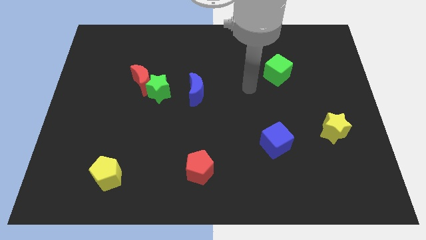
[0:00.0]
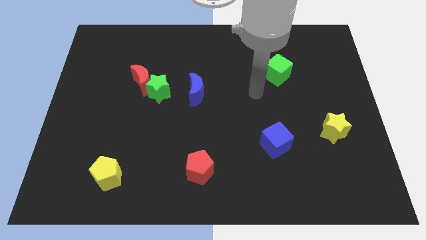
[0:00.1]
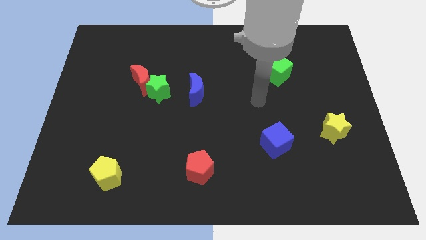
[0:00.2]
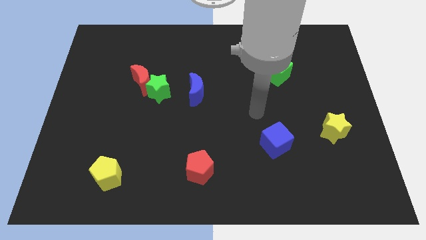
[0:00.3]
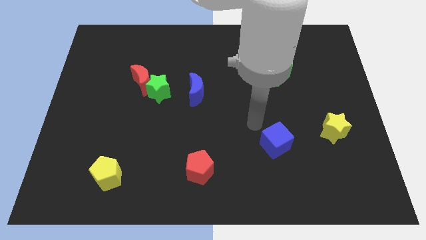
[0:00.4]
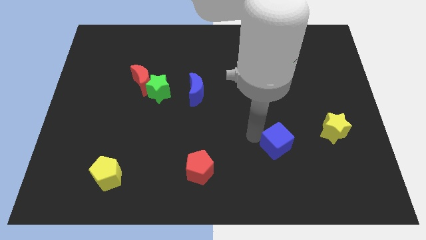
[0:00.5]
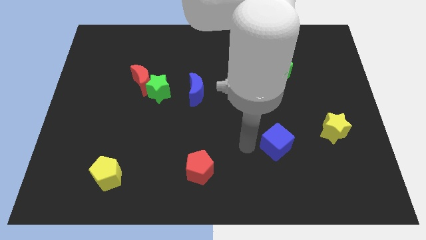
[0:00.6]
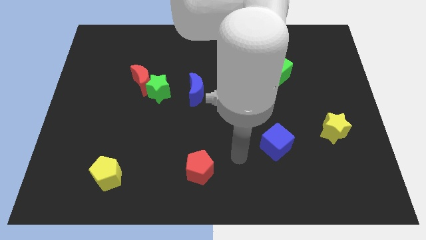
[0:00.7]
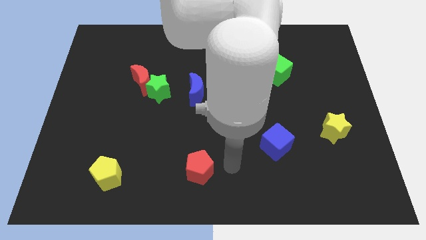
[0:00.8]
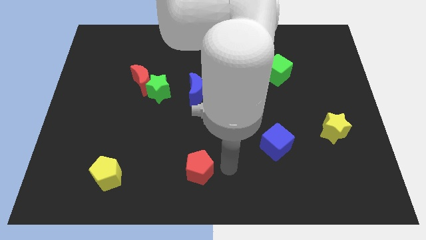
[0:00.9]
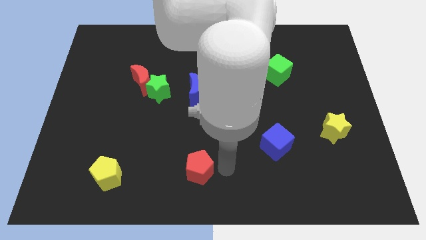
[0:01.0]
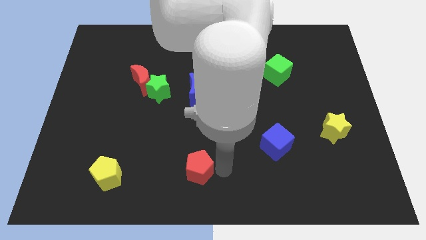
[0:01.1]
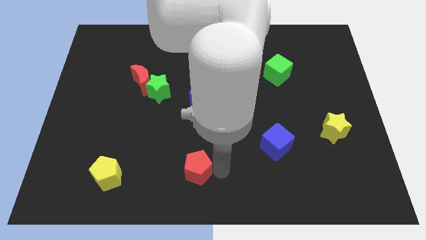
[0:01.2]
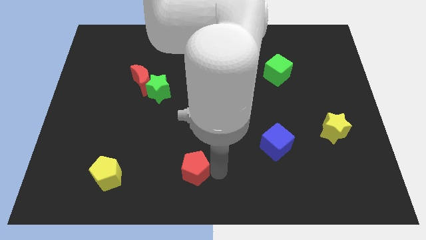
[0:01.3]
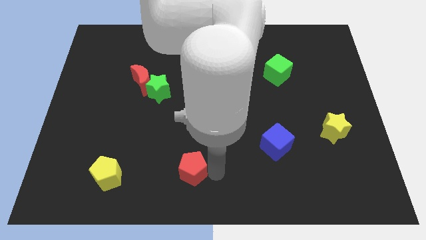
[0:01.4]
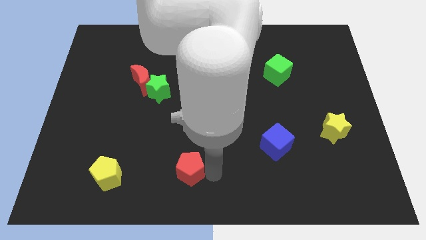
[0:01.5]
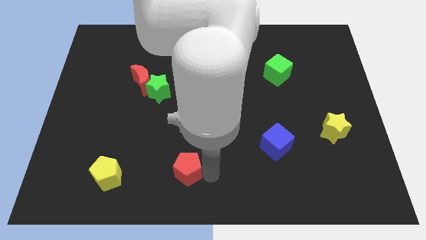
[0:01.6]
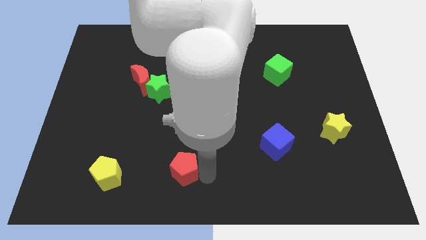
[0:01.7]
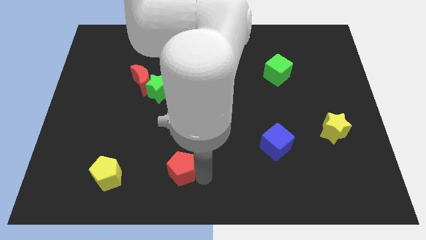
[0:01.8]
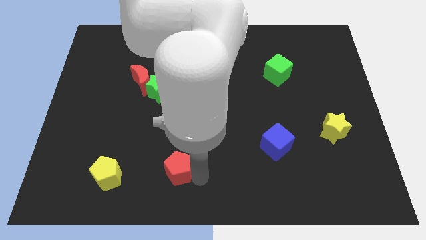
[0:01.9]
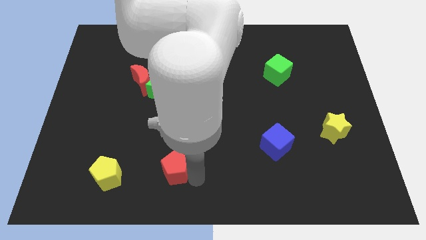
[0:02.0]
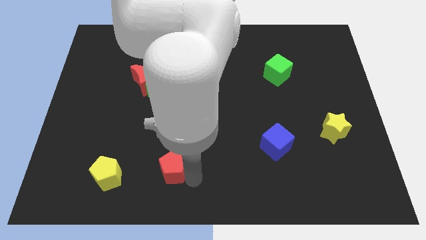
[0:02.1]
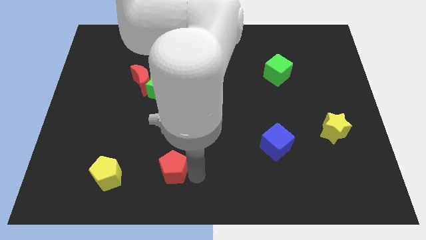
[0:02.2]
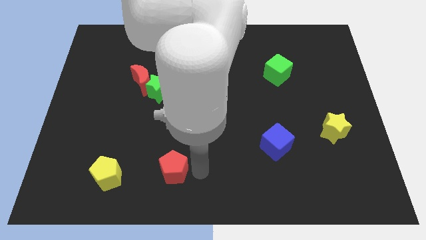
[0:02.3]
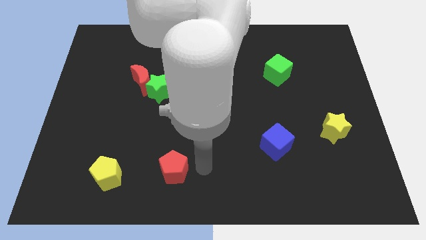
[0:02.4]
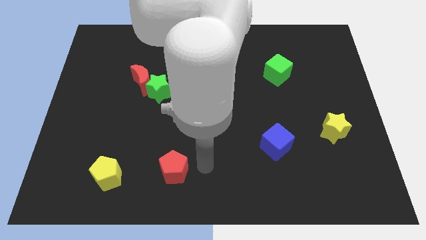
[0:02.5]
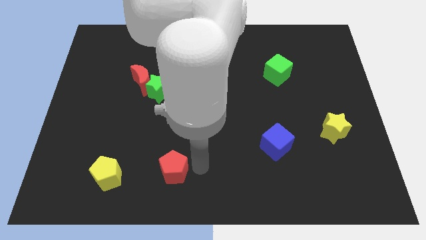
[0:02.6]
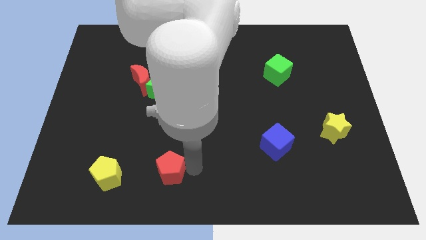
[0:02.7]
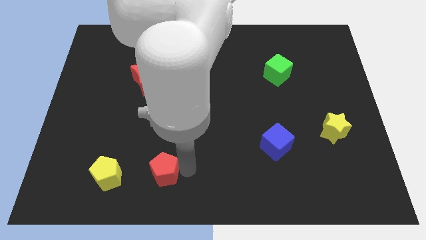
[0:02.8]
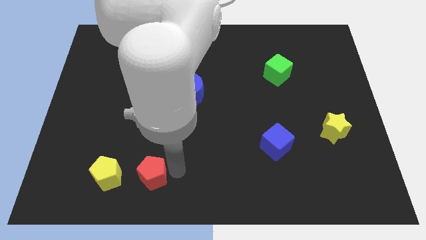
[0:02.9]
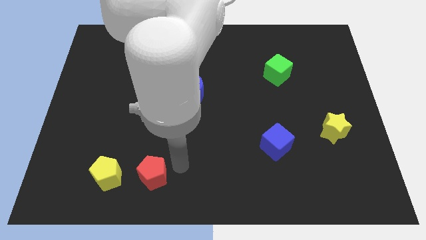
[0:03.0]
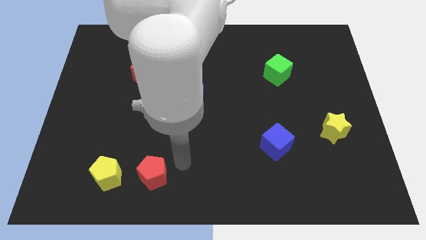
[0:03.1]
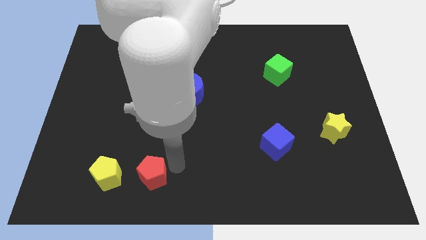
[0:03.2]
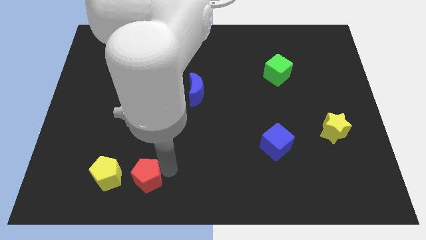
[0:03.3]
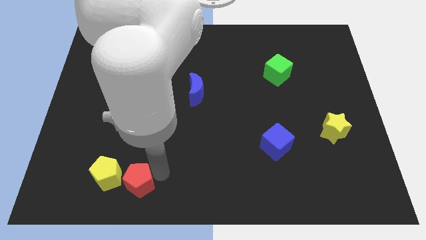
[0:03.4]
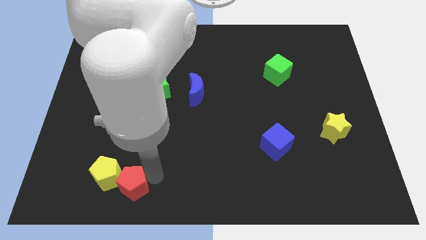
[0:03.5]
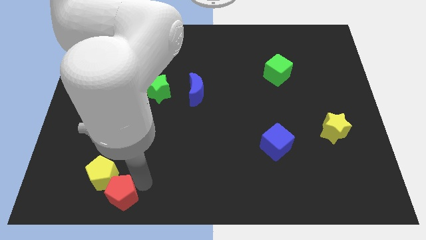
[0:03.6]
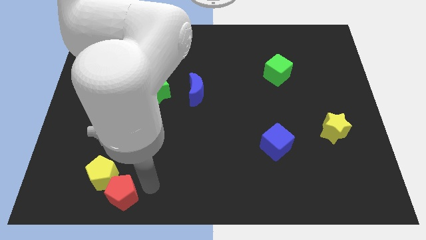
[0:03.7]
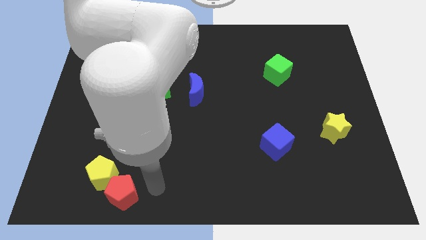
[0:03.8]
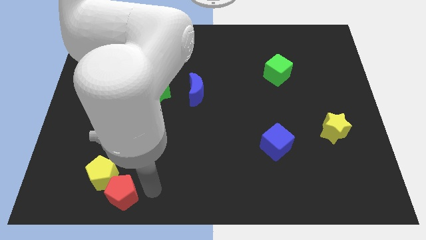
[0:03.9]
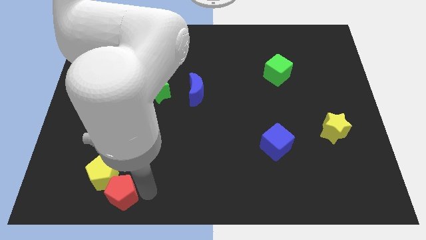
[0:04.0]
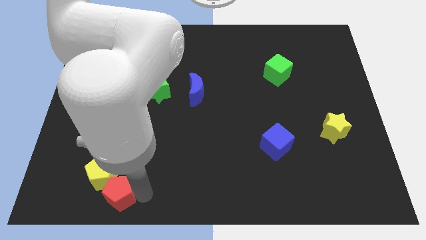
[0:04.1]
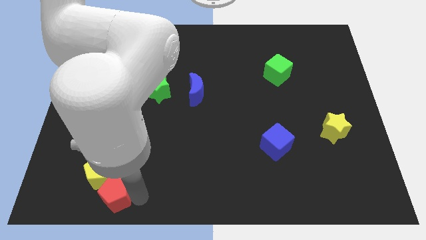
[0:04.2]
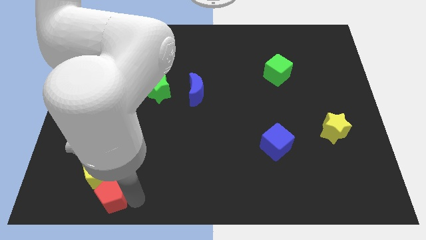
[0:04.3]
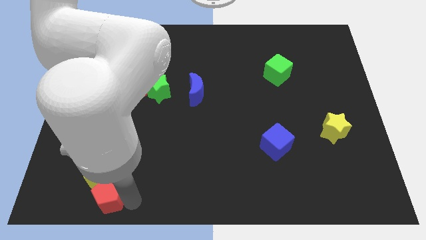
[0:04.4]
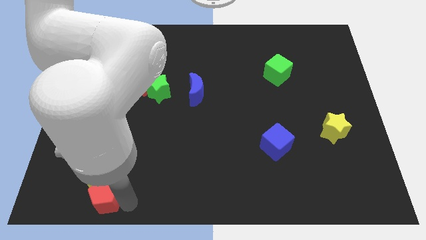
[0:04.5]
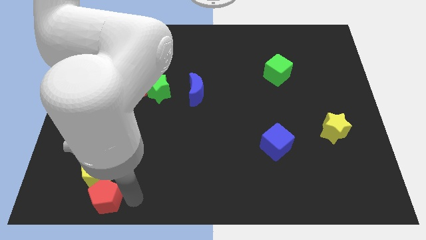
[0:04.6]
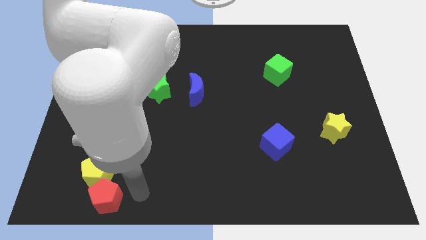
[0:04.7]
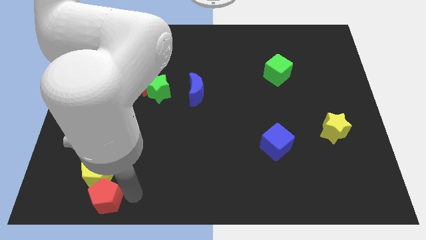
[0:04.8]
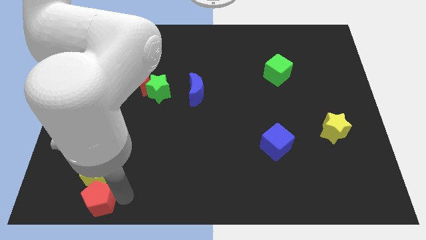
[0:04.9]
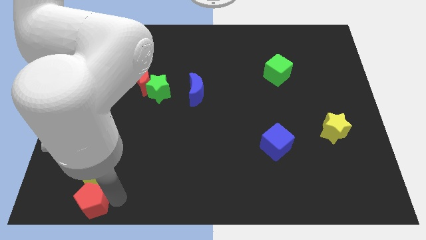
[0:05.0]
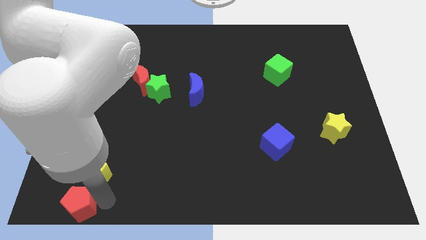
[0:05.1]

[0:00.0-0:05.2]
move the red pentagon to the lower left corner
